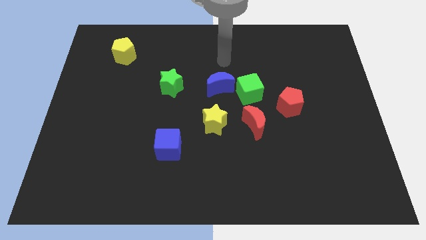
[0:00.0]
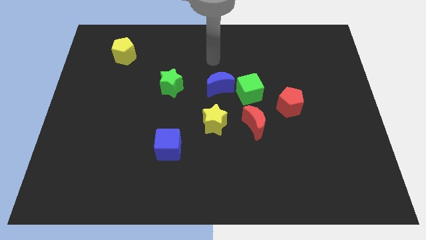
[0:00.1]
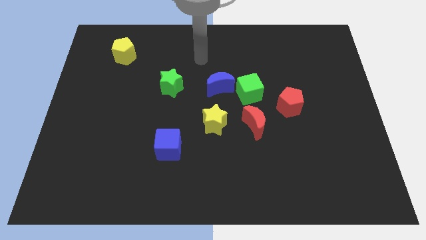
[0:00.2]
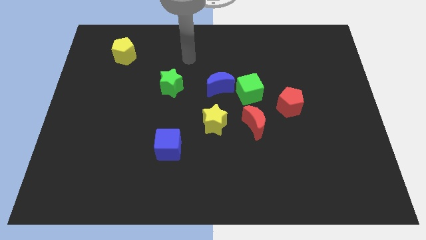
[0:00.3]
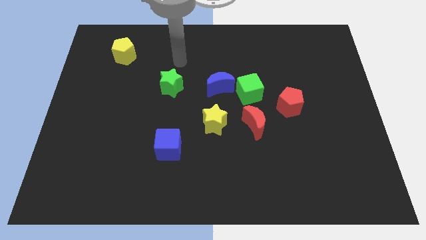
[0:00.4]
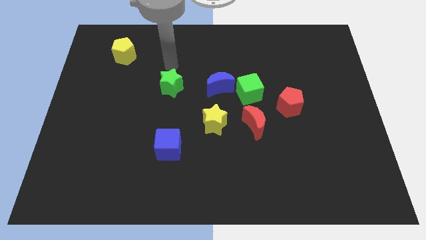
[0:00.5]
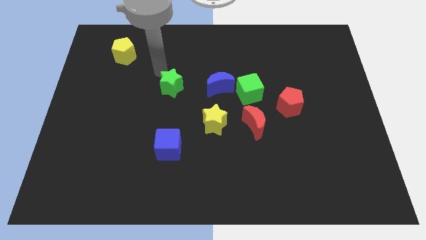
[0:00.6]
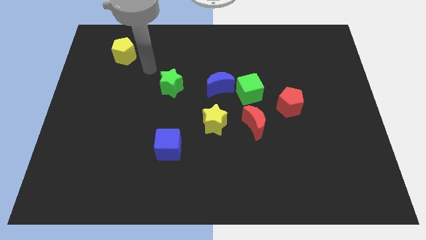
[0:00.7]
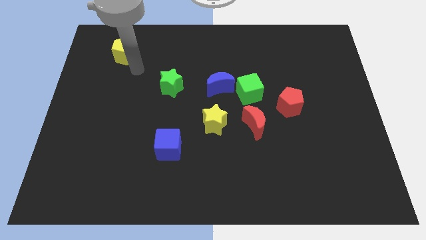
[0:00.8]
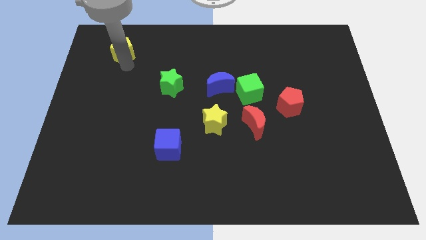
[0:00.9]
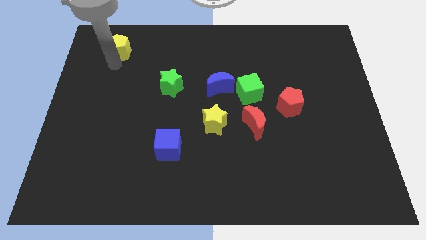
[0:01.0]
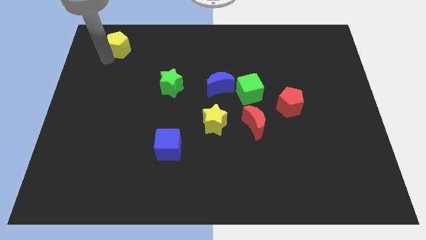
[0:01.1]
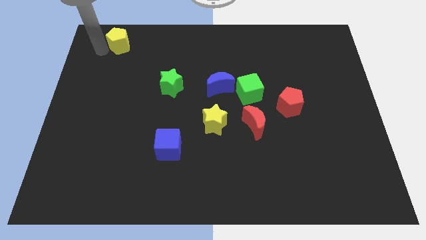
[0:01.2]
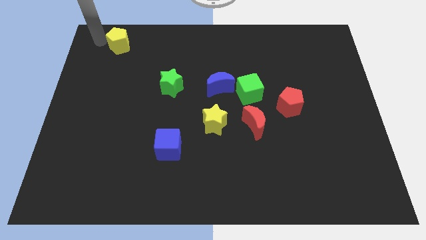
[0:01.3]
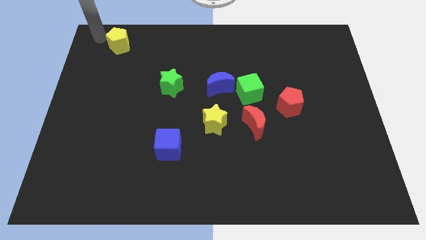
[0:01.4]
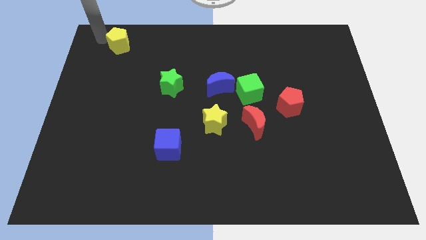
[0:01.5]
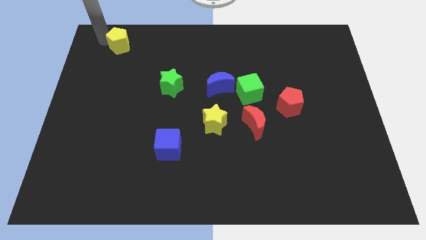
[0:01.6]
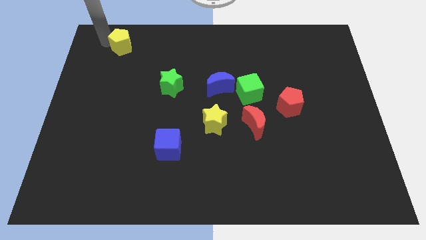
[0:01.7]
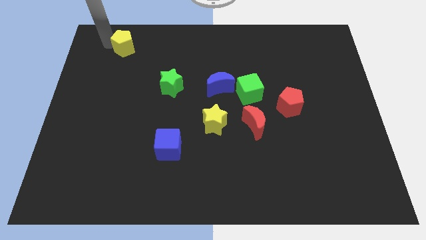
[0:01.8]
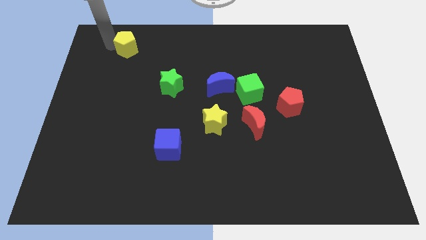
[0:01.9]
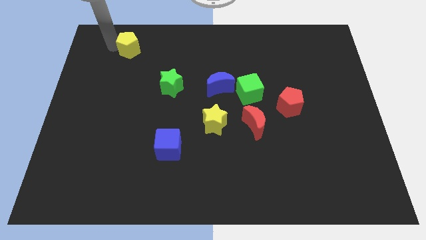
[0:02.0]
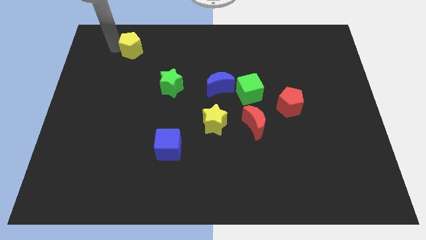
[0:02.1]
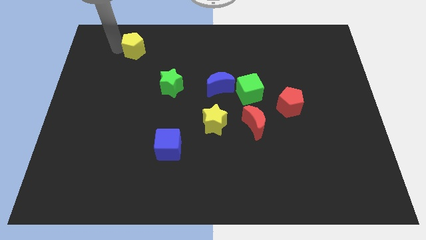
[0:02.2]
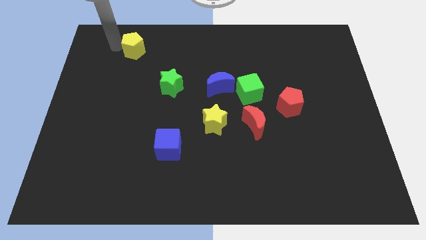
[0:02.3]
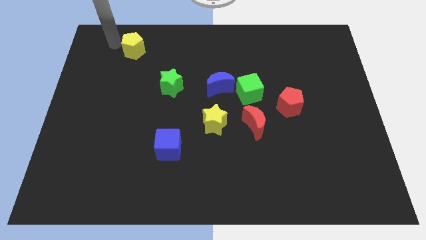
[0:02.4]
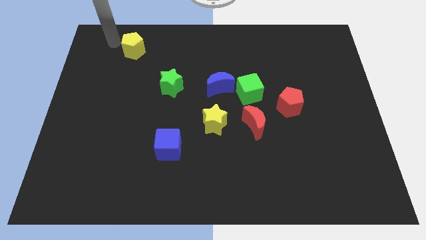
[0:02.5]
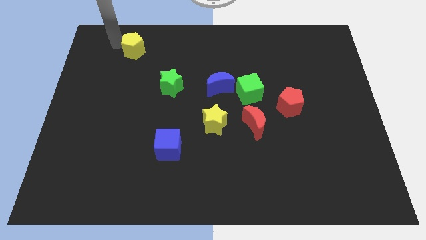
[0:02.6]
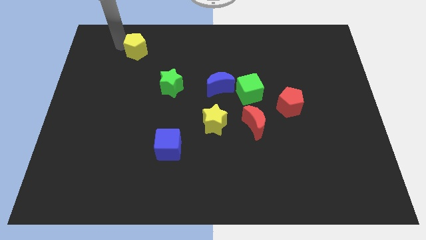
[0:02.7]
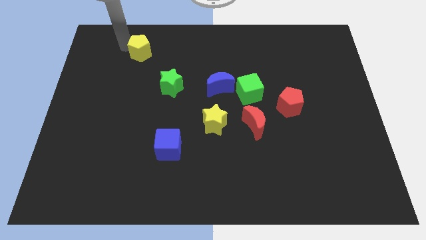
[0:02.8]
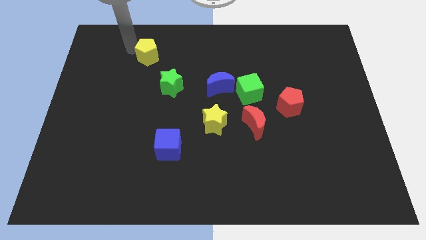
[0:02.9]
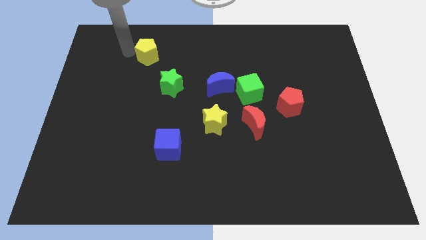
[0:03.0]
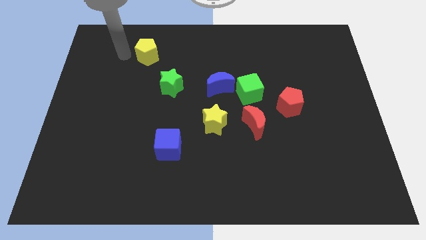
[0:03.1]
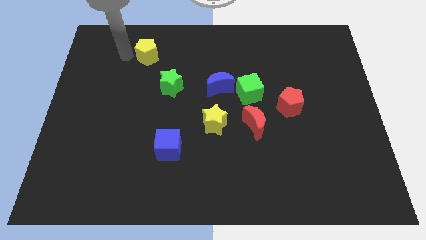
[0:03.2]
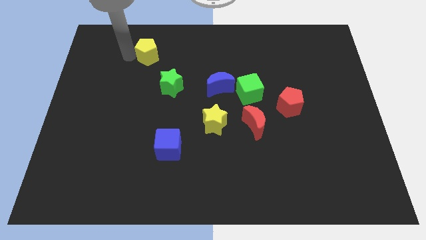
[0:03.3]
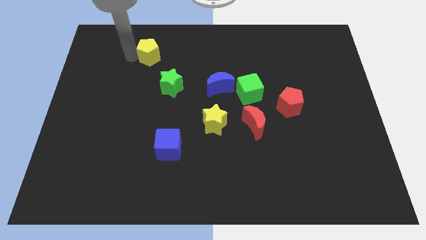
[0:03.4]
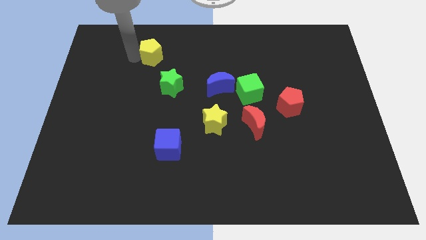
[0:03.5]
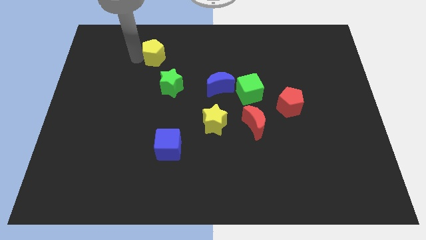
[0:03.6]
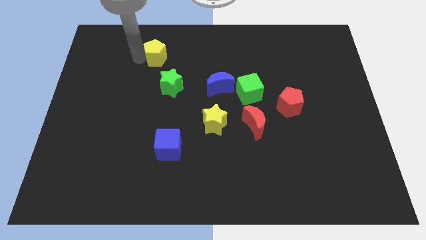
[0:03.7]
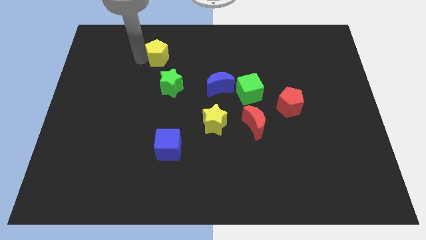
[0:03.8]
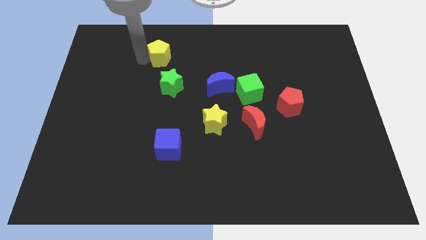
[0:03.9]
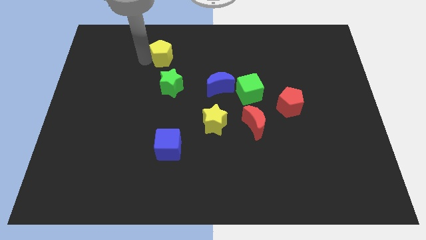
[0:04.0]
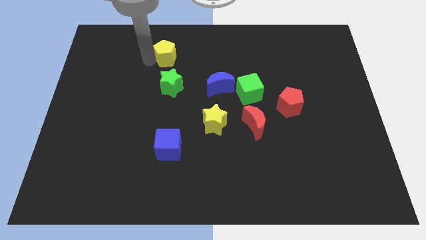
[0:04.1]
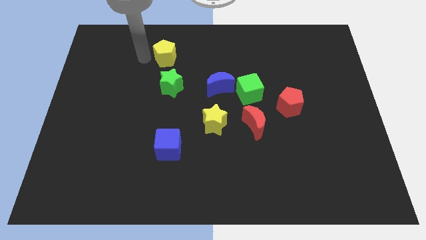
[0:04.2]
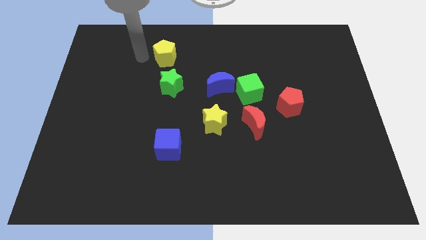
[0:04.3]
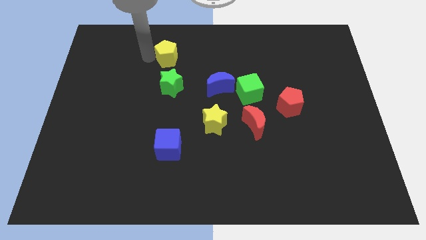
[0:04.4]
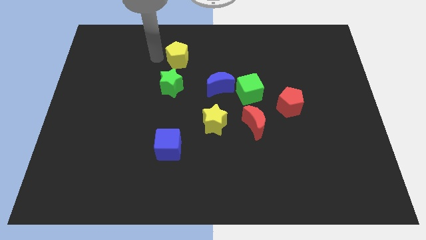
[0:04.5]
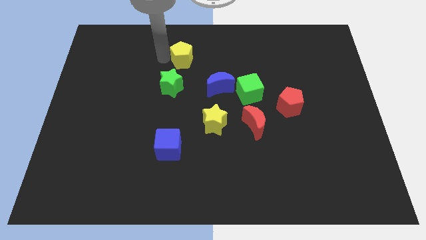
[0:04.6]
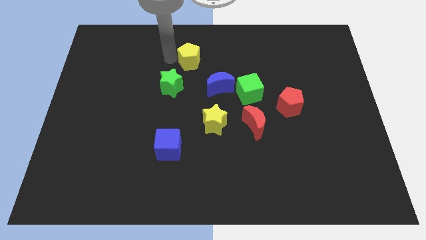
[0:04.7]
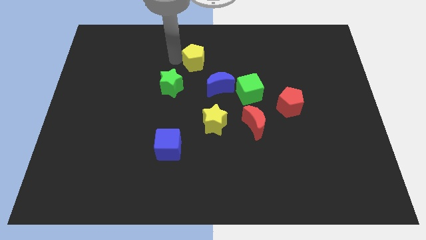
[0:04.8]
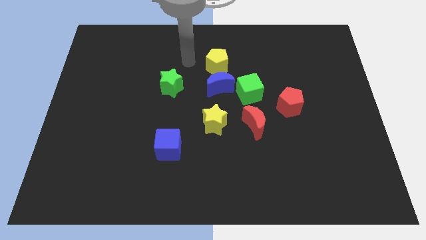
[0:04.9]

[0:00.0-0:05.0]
move the yellow pentagon to the right

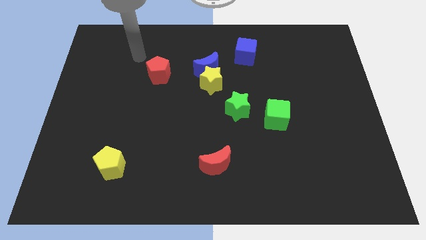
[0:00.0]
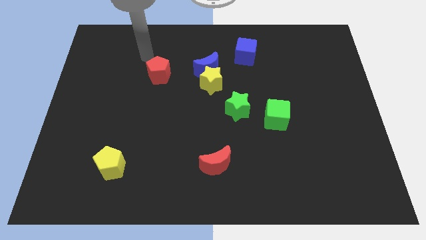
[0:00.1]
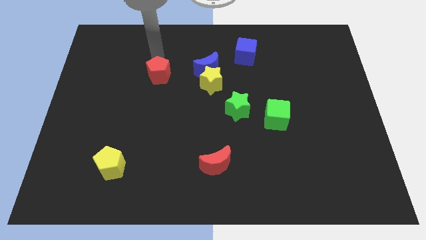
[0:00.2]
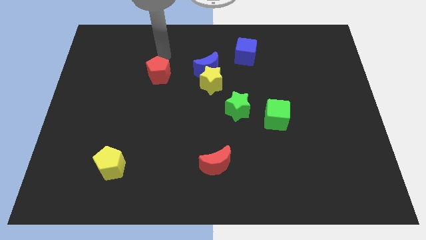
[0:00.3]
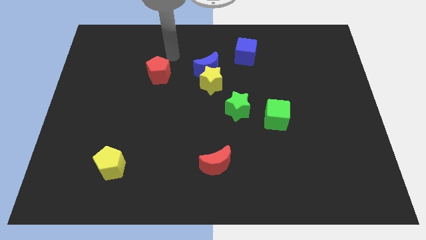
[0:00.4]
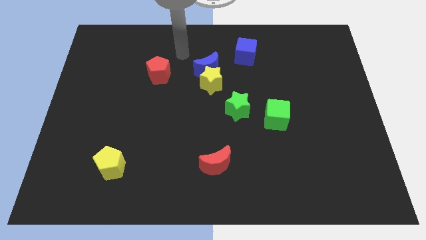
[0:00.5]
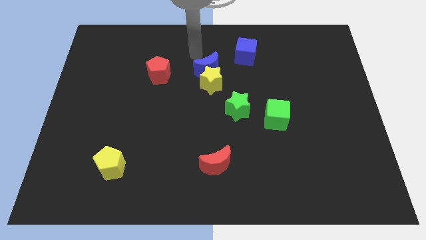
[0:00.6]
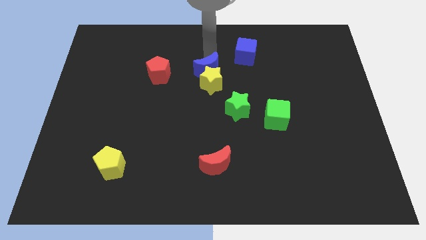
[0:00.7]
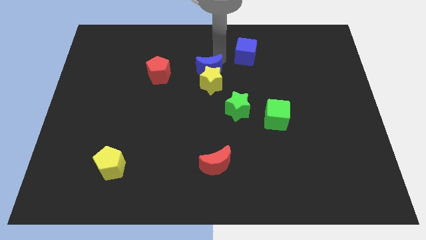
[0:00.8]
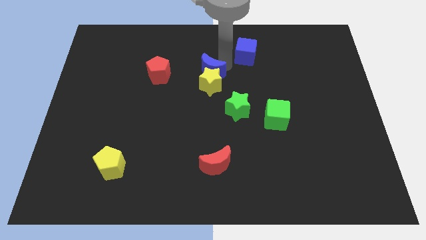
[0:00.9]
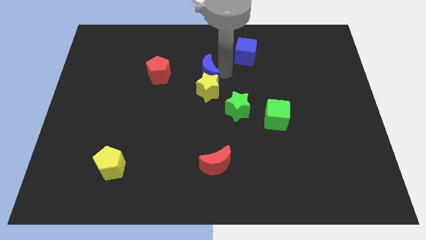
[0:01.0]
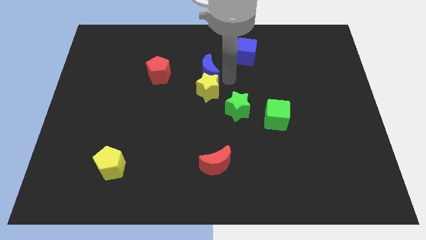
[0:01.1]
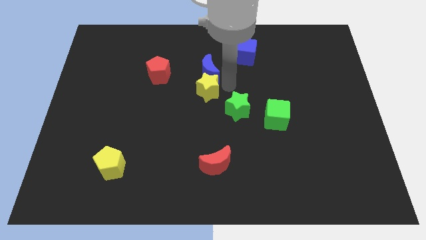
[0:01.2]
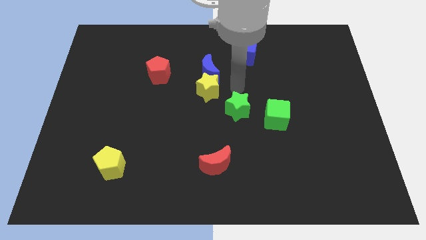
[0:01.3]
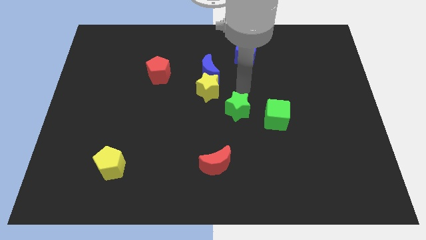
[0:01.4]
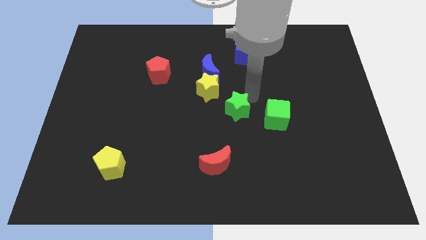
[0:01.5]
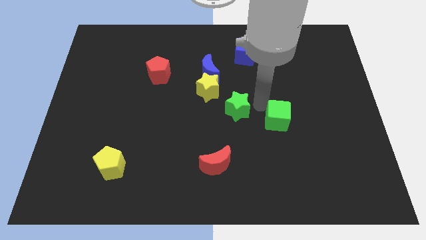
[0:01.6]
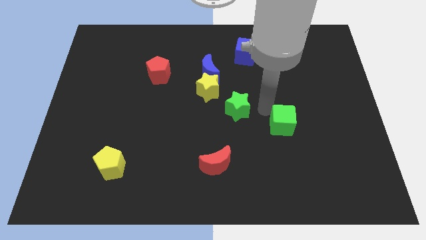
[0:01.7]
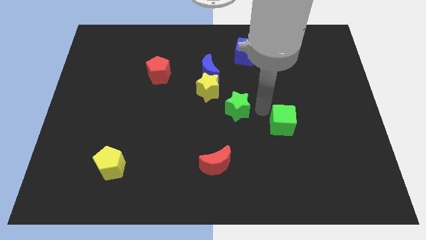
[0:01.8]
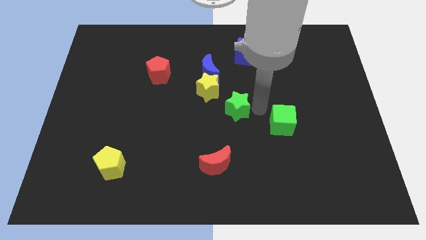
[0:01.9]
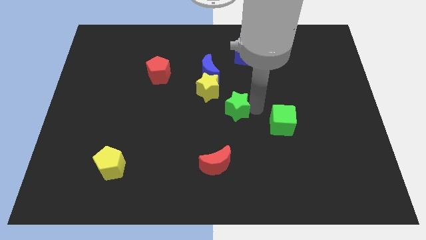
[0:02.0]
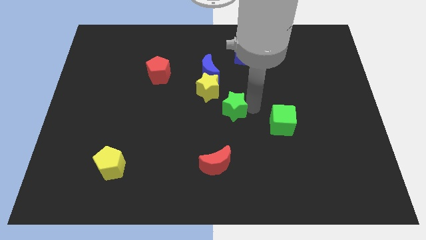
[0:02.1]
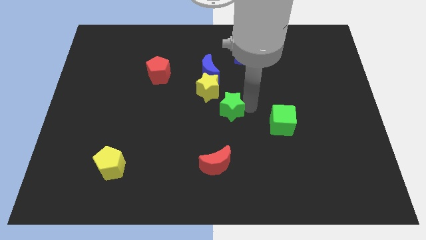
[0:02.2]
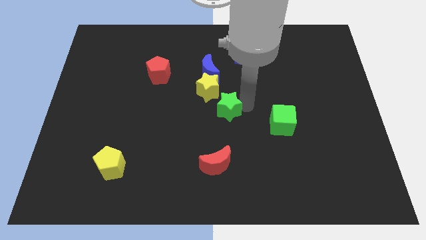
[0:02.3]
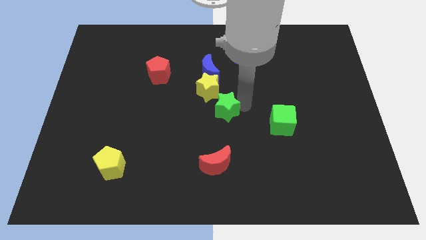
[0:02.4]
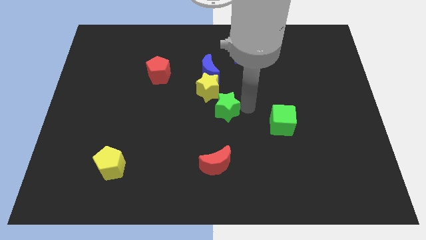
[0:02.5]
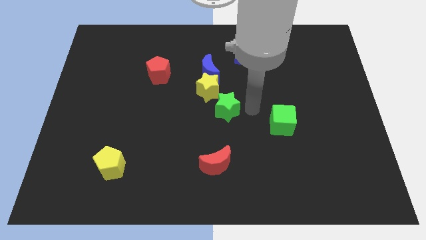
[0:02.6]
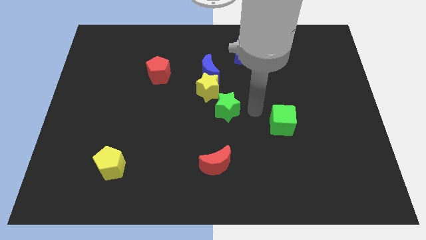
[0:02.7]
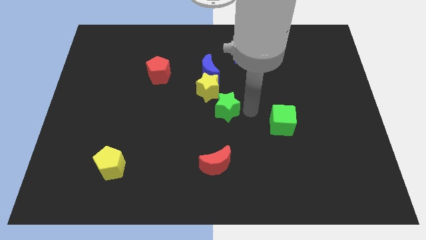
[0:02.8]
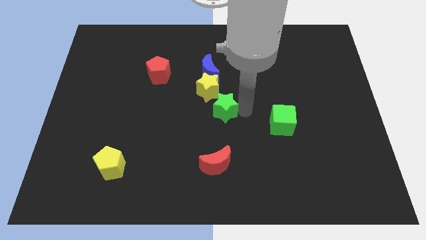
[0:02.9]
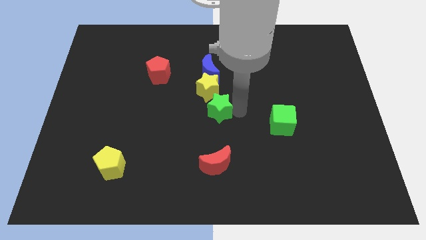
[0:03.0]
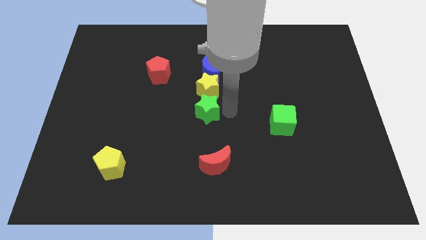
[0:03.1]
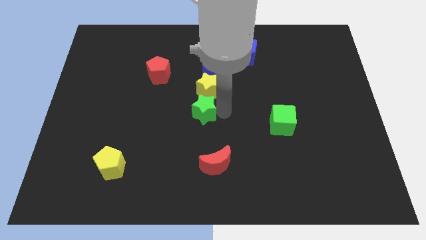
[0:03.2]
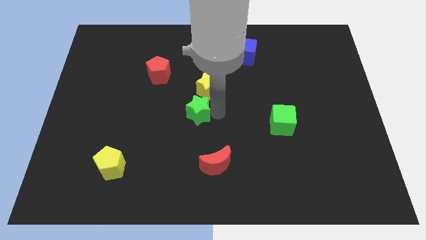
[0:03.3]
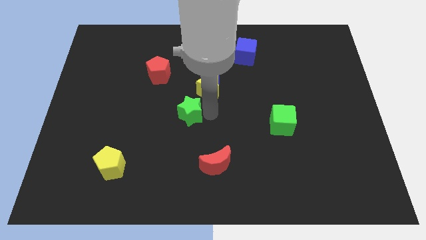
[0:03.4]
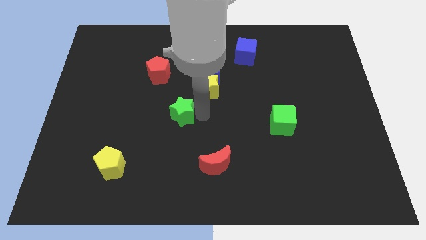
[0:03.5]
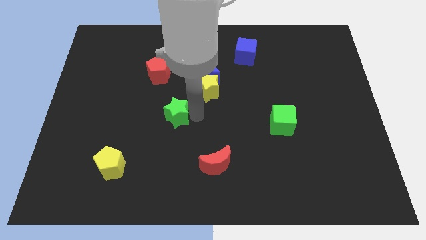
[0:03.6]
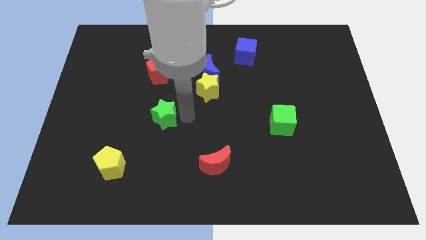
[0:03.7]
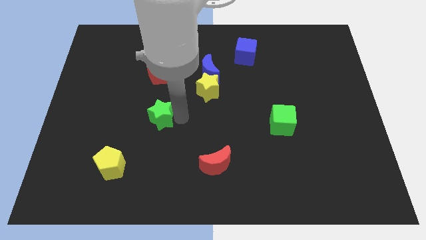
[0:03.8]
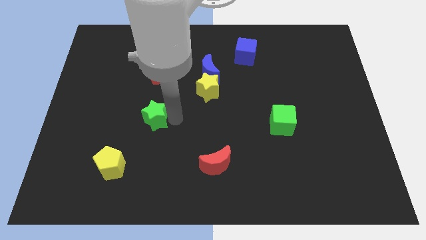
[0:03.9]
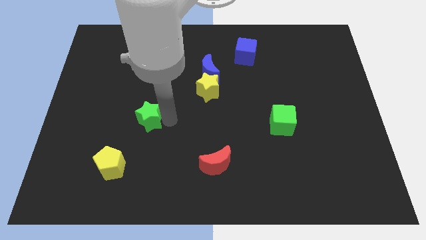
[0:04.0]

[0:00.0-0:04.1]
push the green star left
